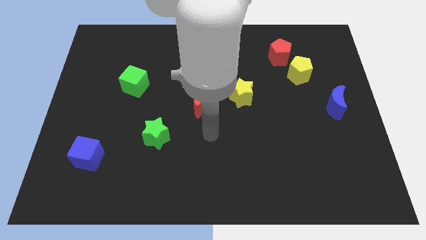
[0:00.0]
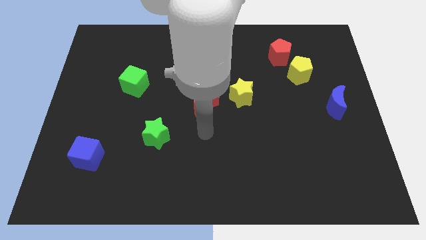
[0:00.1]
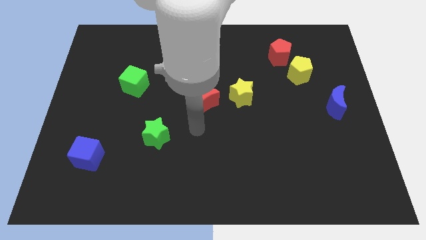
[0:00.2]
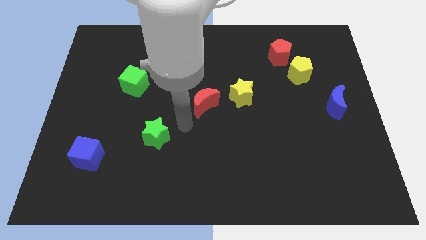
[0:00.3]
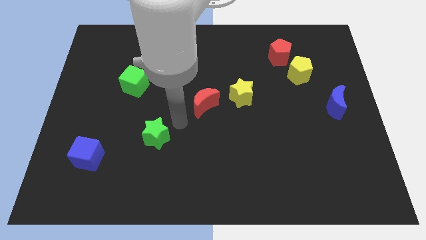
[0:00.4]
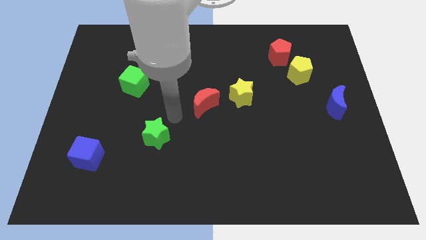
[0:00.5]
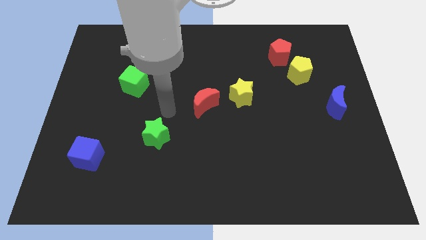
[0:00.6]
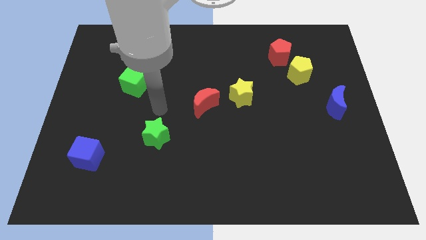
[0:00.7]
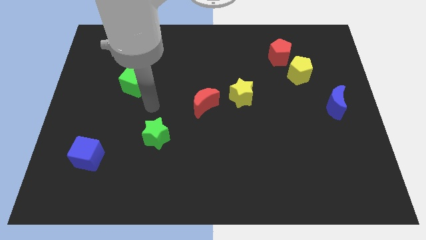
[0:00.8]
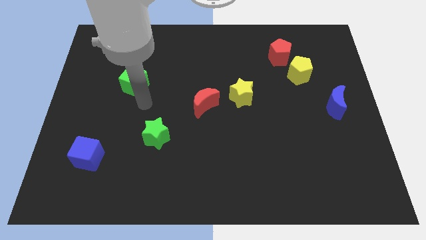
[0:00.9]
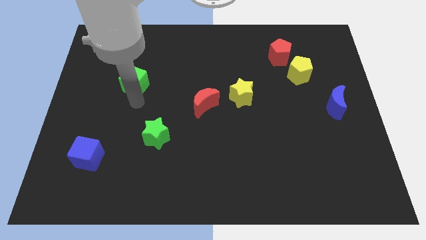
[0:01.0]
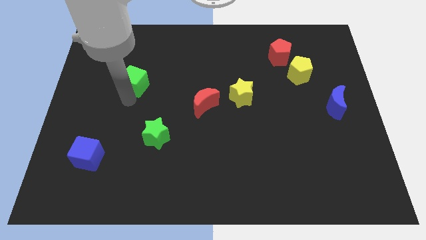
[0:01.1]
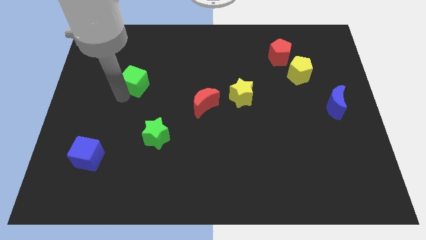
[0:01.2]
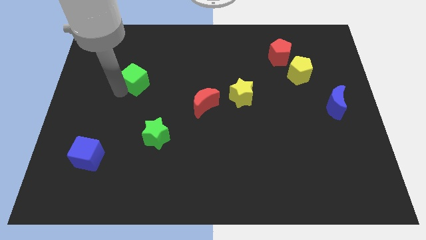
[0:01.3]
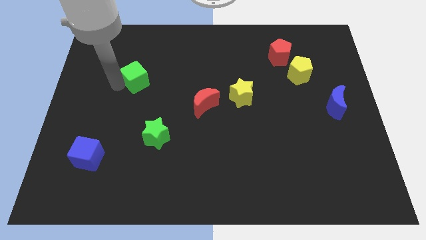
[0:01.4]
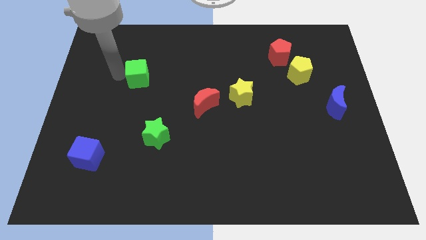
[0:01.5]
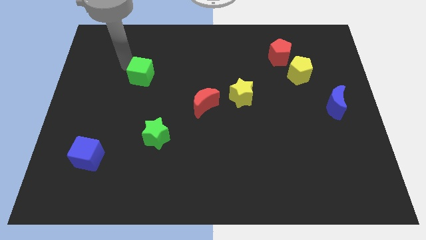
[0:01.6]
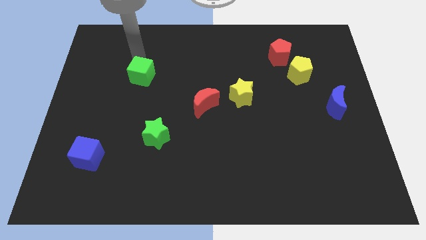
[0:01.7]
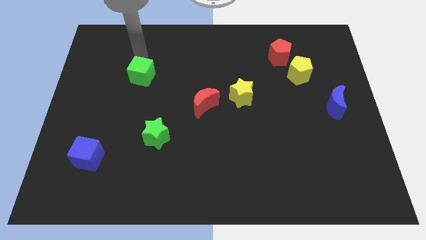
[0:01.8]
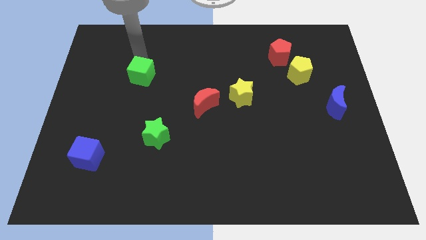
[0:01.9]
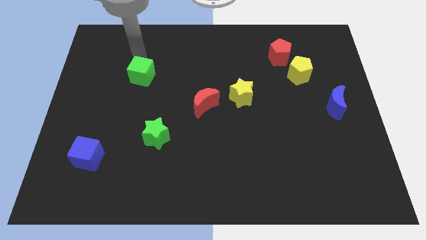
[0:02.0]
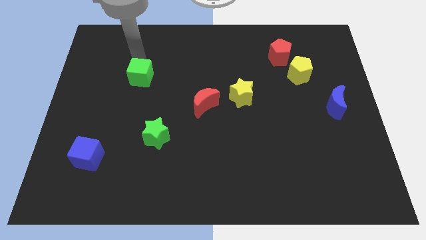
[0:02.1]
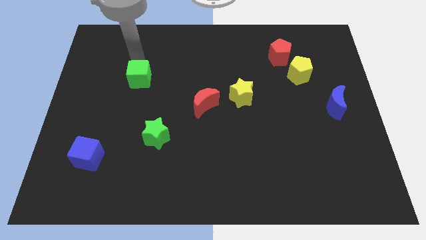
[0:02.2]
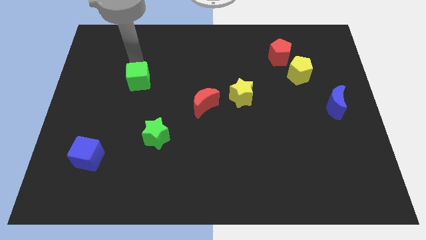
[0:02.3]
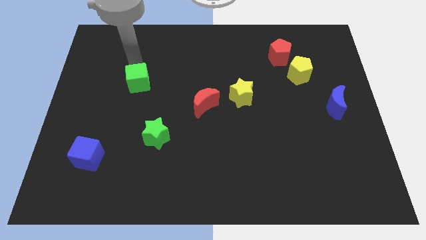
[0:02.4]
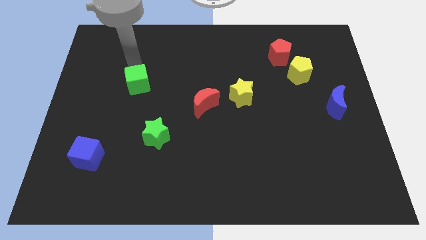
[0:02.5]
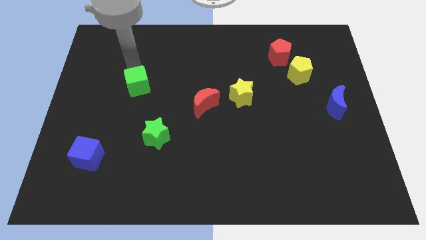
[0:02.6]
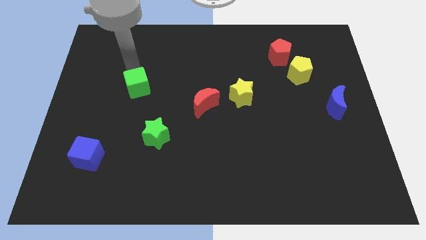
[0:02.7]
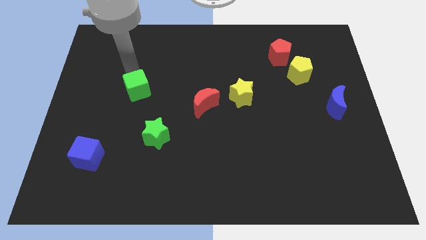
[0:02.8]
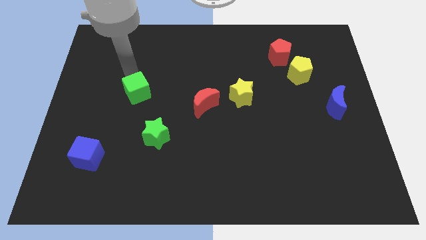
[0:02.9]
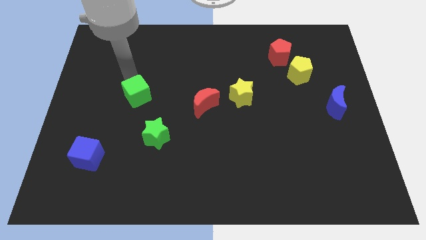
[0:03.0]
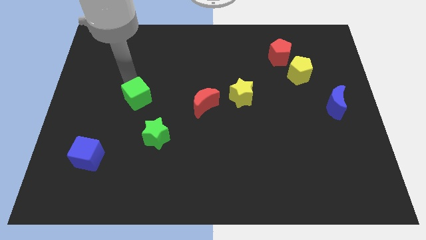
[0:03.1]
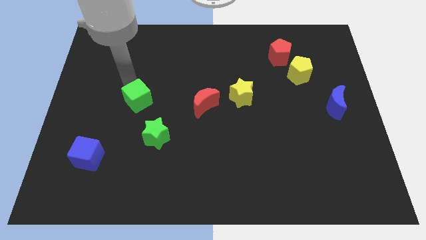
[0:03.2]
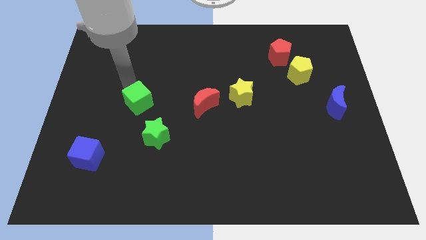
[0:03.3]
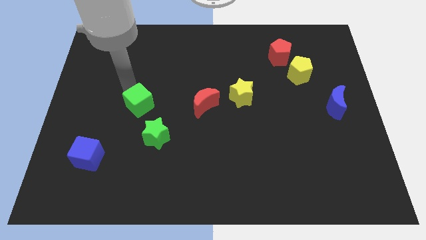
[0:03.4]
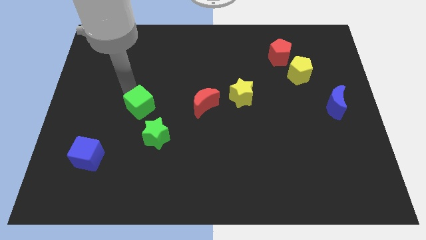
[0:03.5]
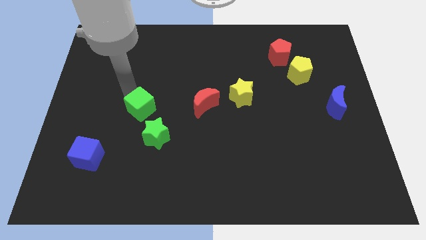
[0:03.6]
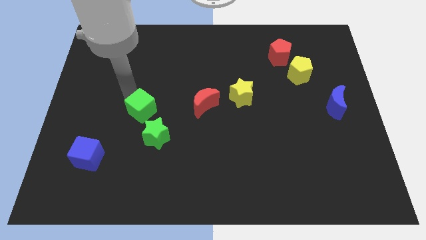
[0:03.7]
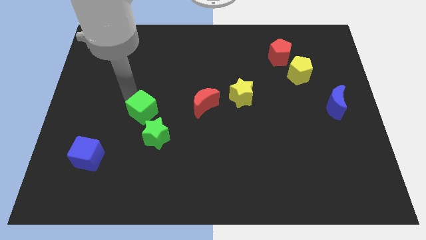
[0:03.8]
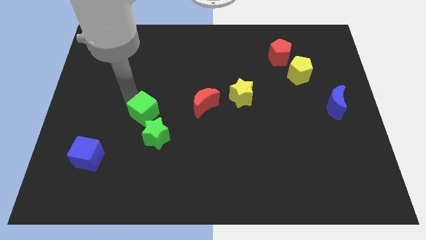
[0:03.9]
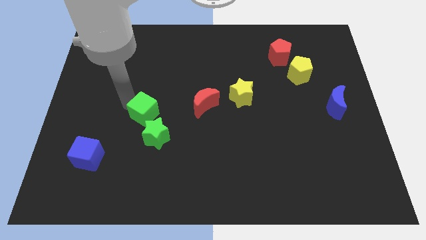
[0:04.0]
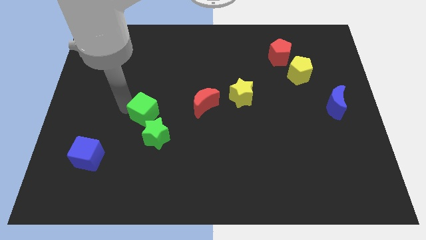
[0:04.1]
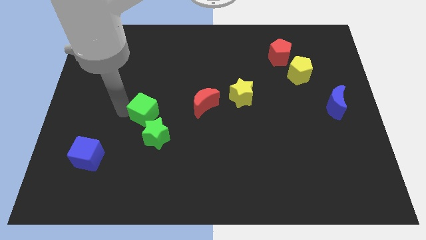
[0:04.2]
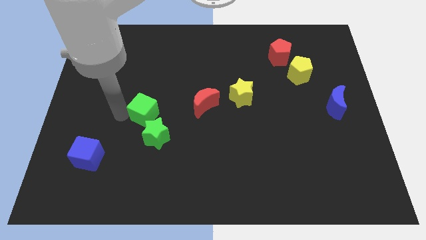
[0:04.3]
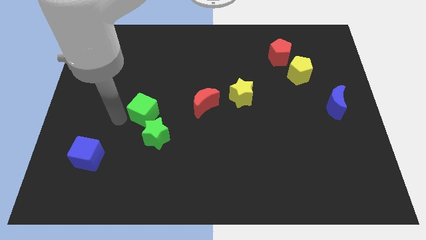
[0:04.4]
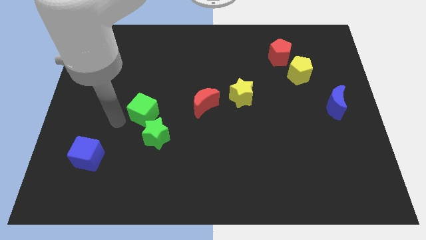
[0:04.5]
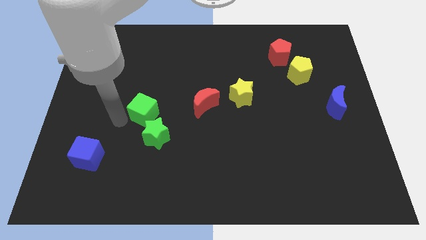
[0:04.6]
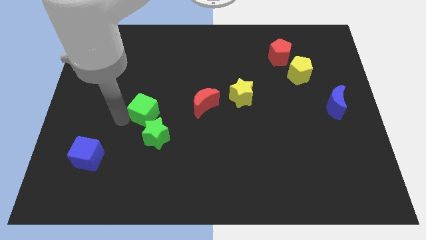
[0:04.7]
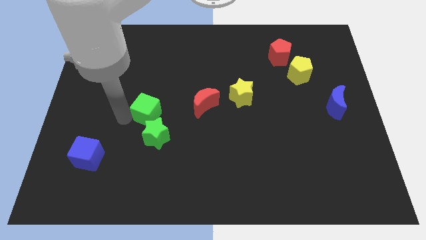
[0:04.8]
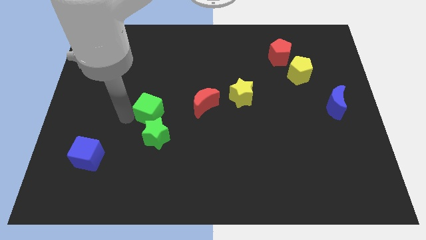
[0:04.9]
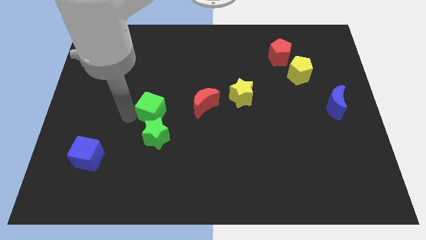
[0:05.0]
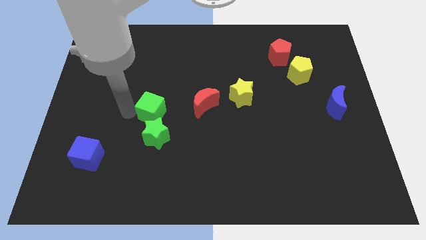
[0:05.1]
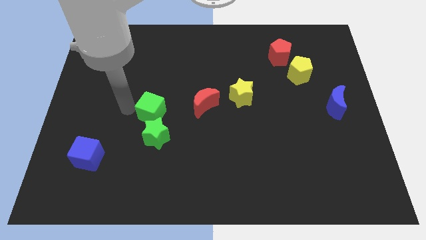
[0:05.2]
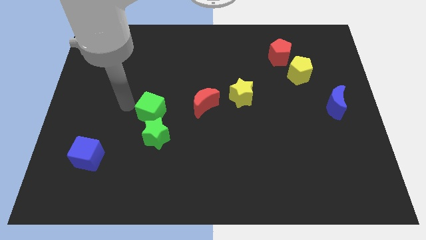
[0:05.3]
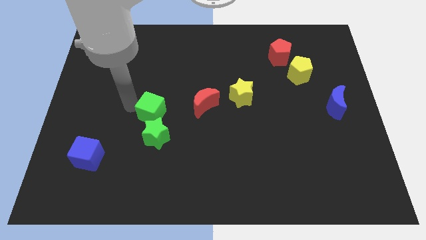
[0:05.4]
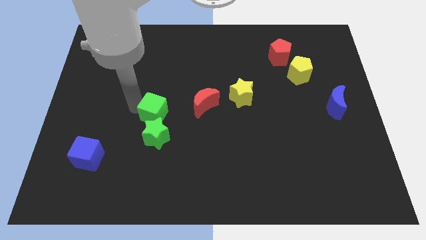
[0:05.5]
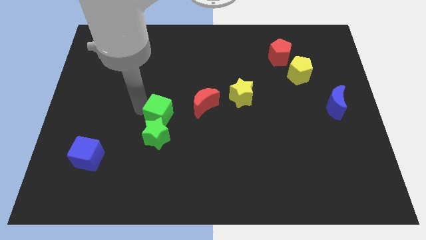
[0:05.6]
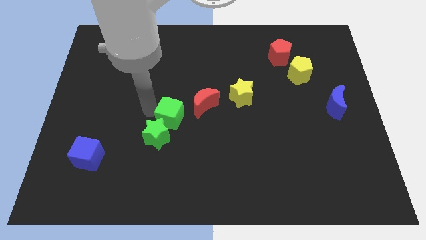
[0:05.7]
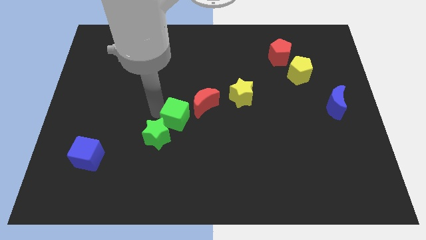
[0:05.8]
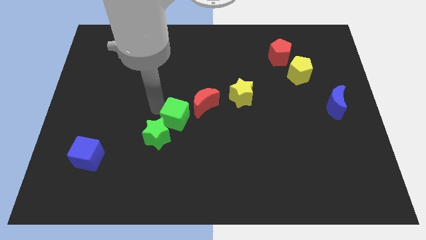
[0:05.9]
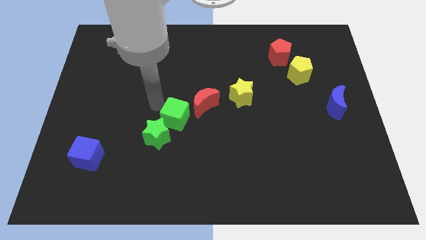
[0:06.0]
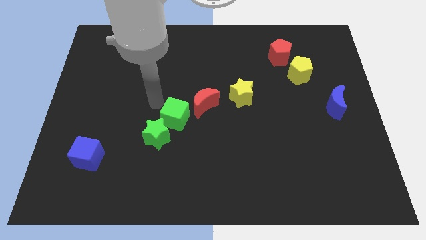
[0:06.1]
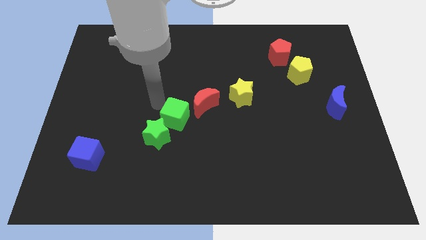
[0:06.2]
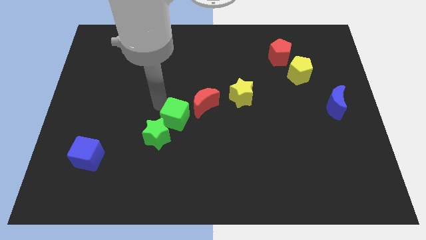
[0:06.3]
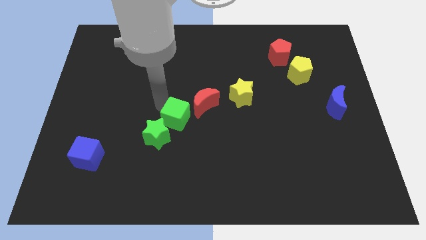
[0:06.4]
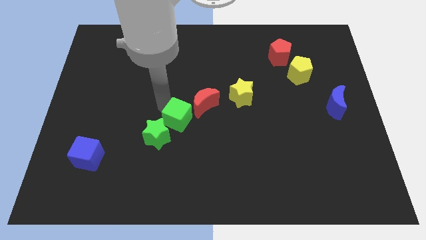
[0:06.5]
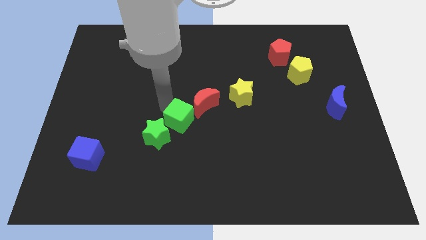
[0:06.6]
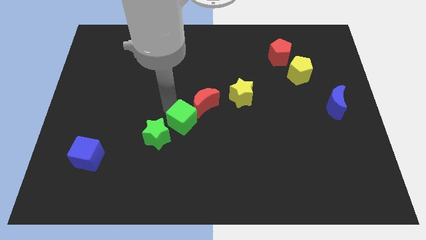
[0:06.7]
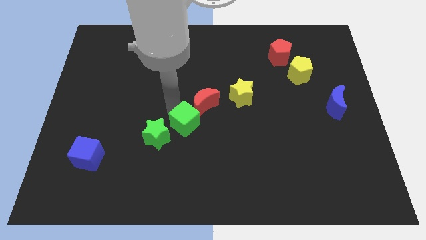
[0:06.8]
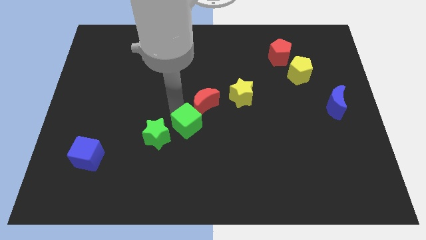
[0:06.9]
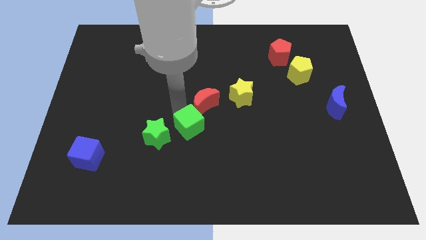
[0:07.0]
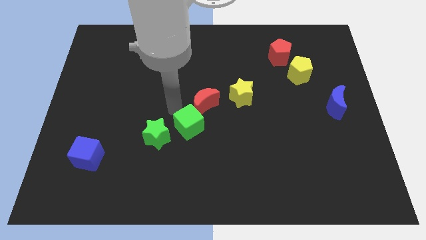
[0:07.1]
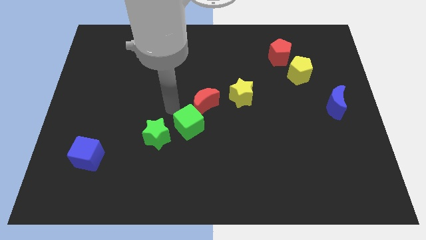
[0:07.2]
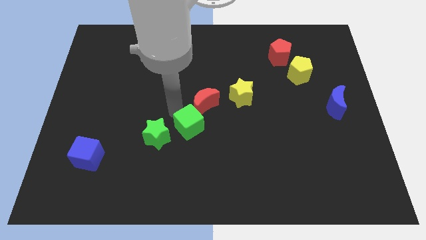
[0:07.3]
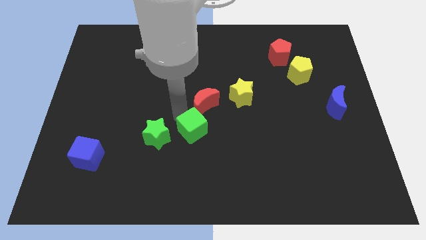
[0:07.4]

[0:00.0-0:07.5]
push the green cube down and then to the right
